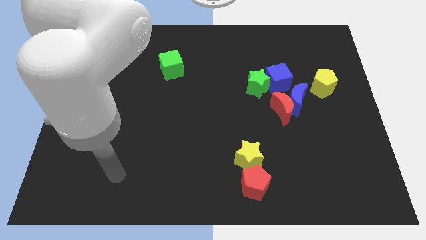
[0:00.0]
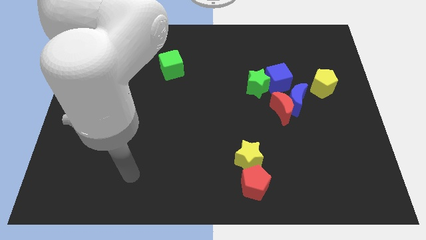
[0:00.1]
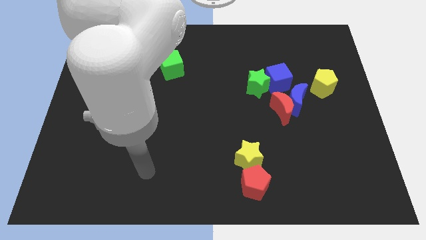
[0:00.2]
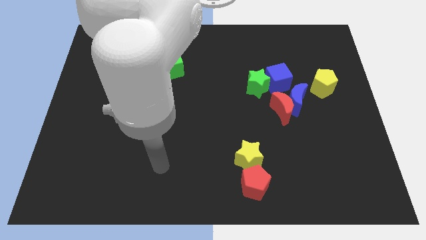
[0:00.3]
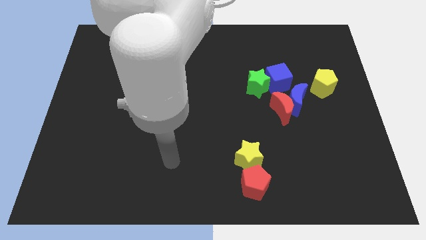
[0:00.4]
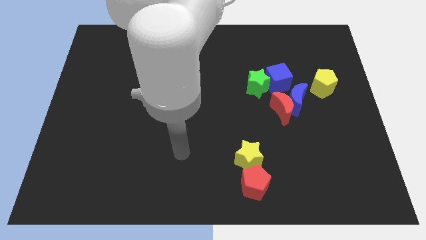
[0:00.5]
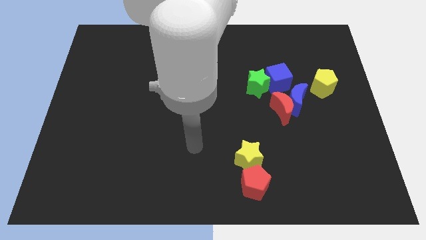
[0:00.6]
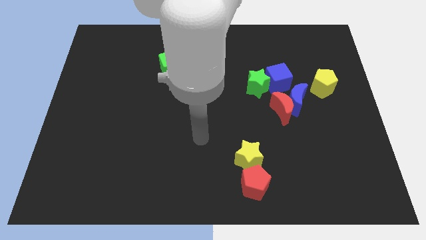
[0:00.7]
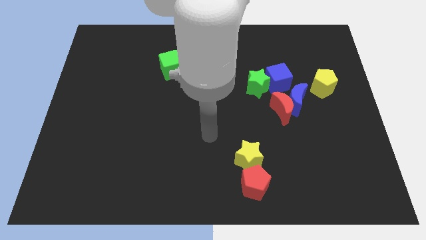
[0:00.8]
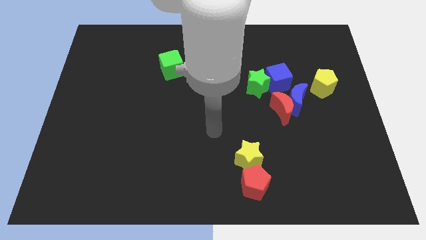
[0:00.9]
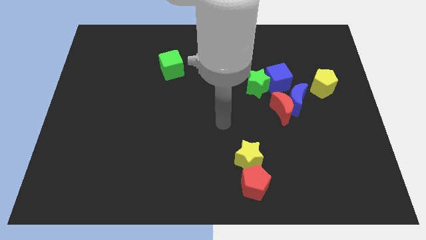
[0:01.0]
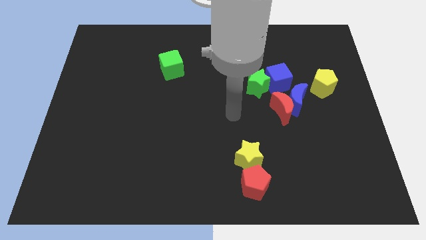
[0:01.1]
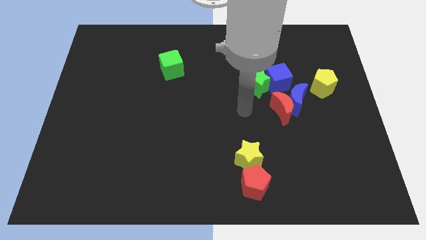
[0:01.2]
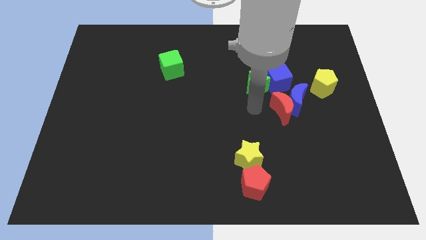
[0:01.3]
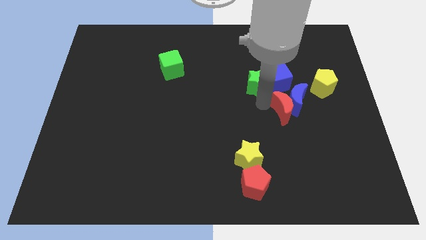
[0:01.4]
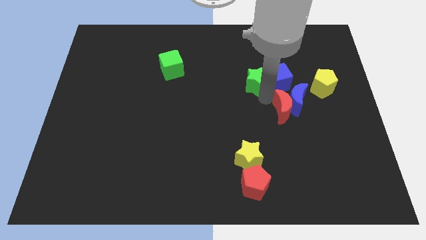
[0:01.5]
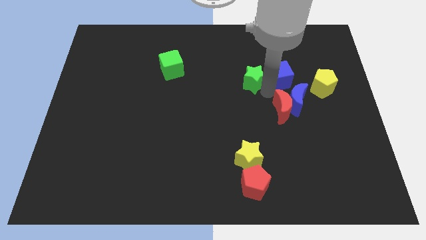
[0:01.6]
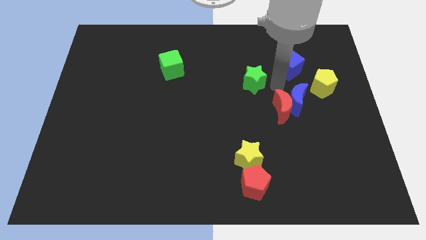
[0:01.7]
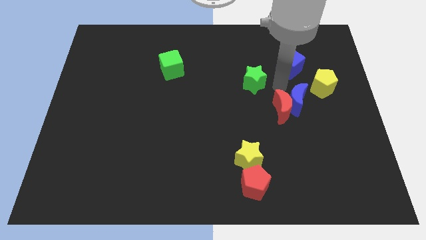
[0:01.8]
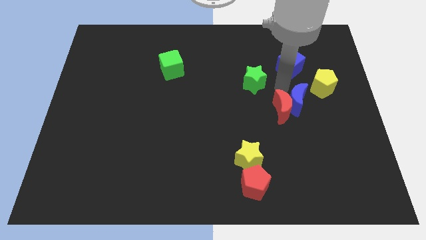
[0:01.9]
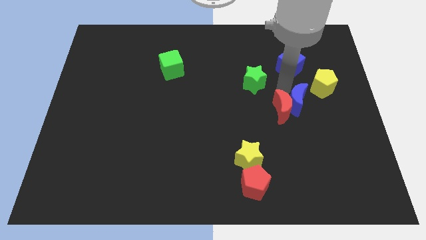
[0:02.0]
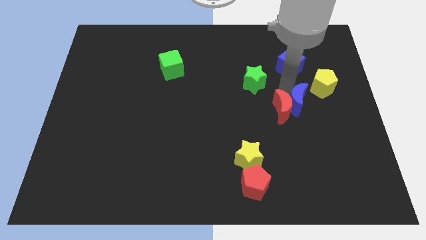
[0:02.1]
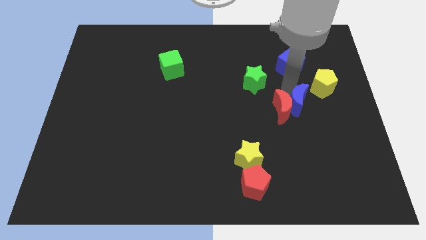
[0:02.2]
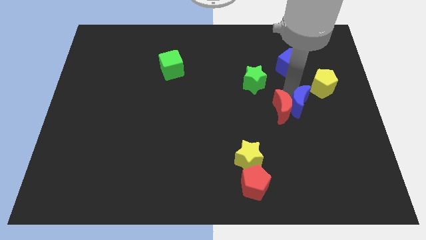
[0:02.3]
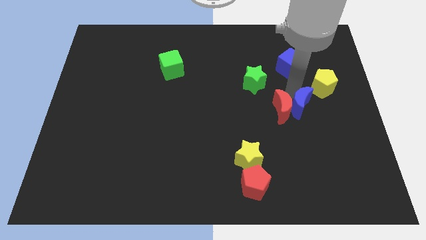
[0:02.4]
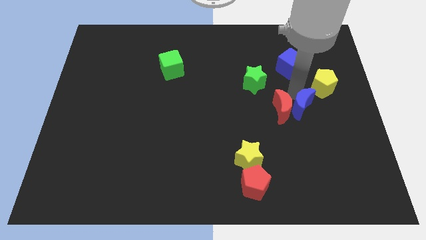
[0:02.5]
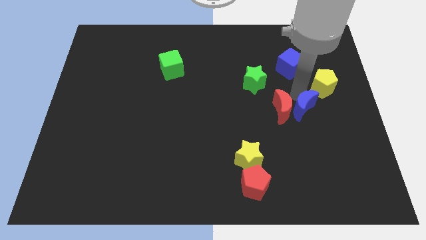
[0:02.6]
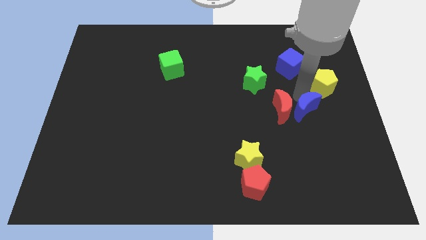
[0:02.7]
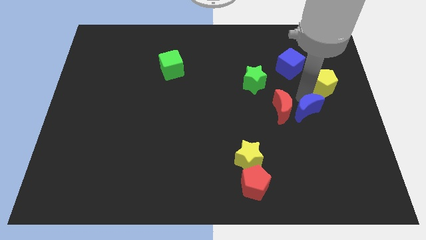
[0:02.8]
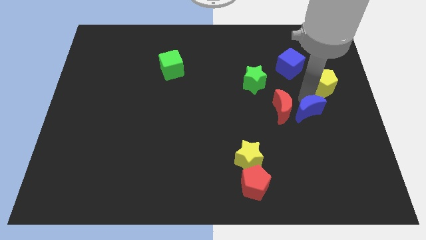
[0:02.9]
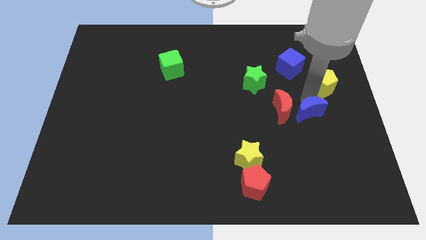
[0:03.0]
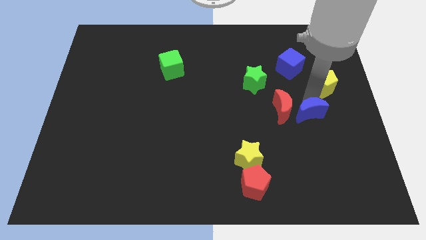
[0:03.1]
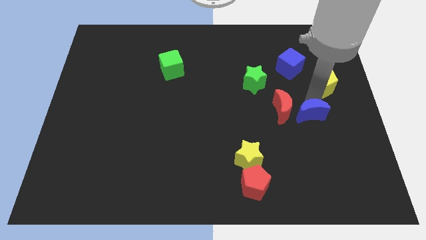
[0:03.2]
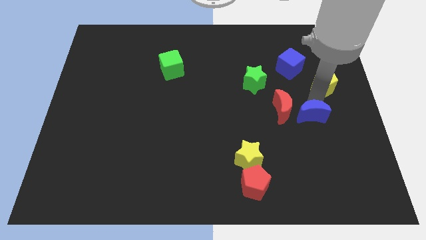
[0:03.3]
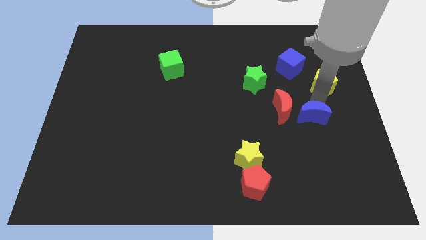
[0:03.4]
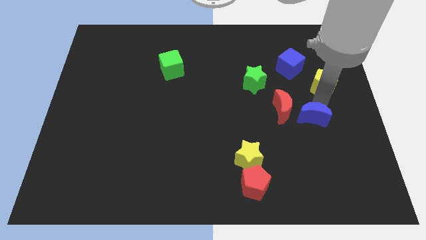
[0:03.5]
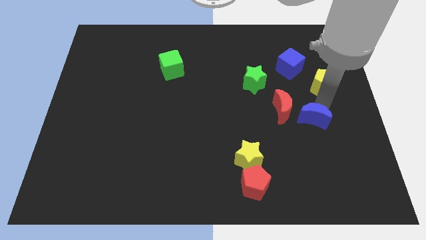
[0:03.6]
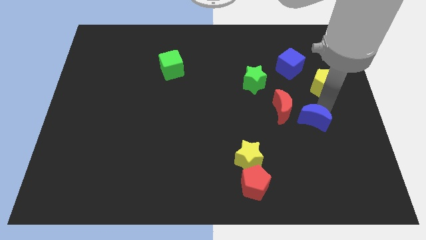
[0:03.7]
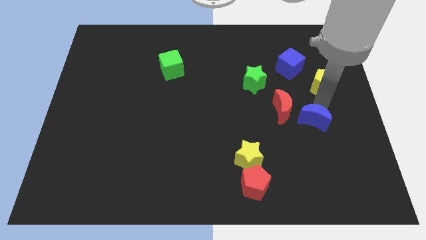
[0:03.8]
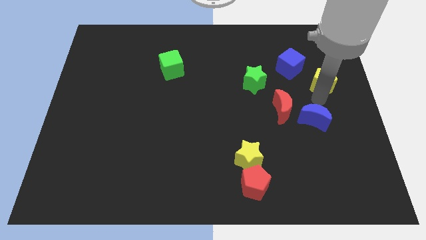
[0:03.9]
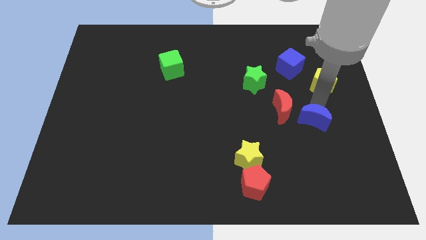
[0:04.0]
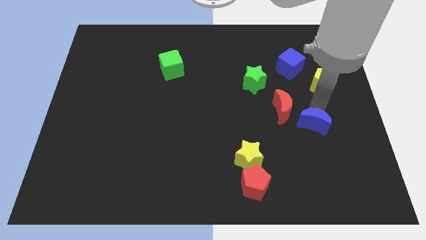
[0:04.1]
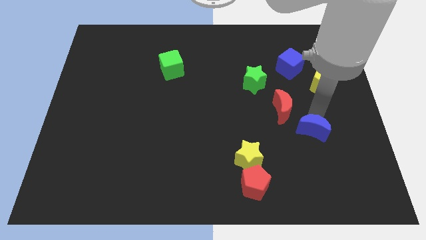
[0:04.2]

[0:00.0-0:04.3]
move the blue moon down a bit

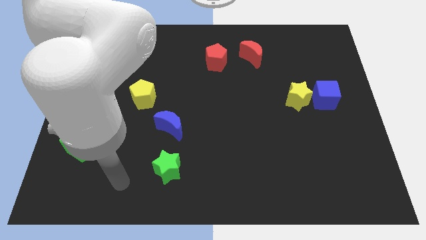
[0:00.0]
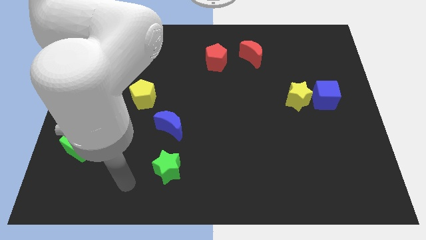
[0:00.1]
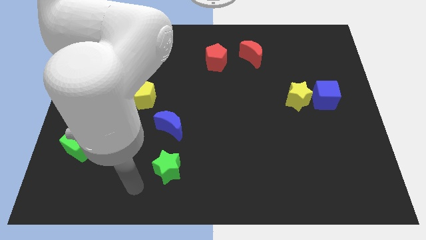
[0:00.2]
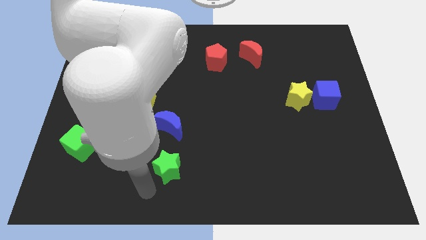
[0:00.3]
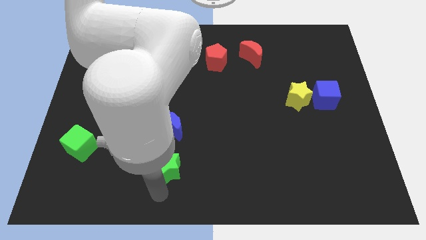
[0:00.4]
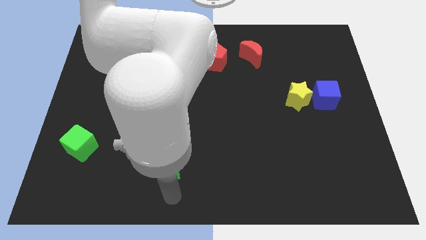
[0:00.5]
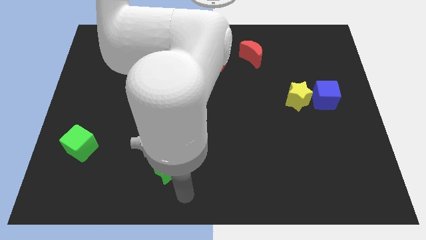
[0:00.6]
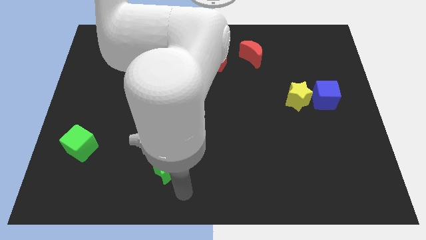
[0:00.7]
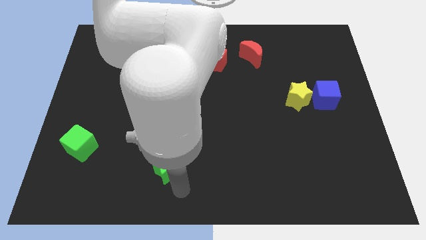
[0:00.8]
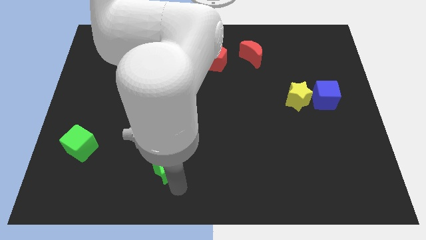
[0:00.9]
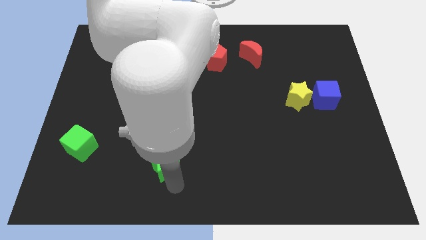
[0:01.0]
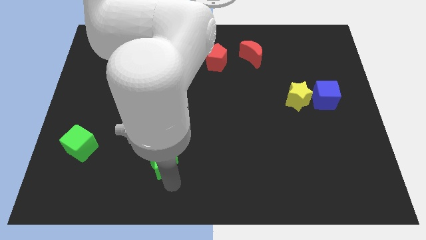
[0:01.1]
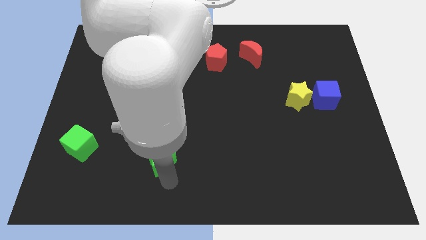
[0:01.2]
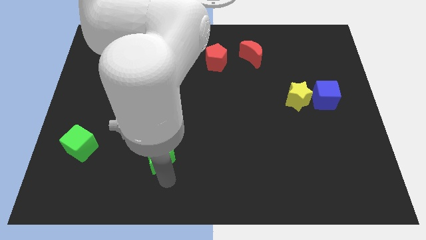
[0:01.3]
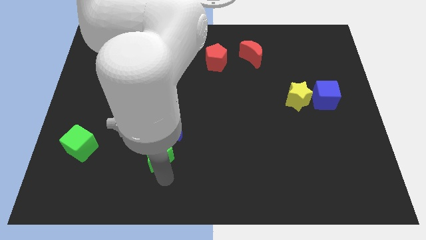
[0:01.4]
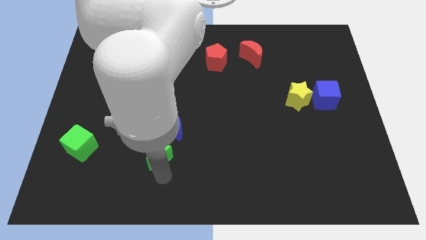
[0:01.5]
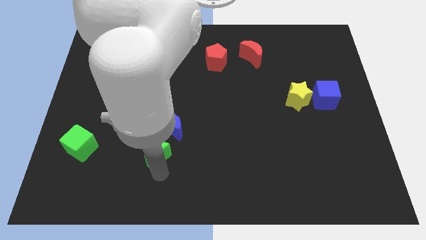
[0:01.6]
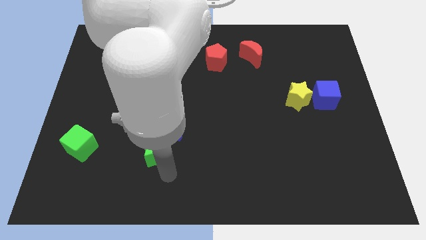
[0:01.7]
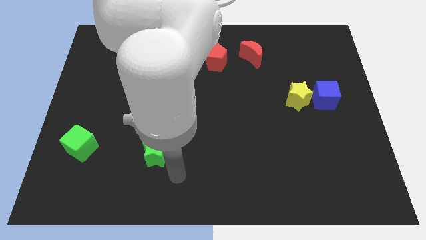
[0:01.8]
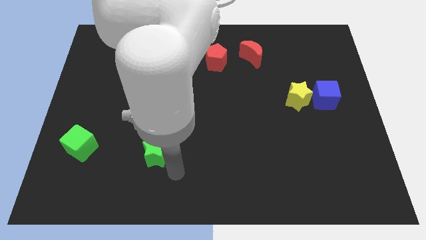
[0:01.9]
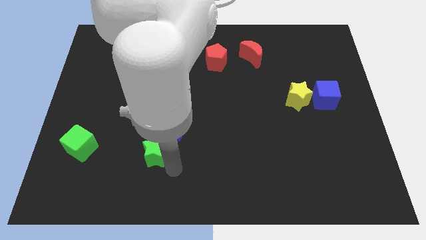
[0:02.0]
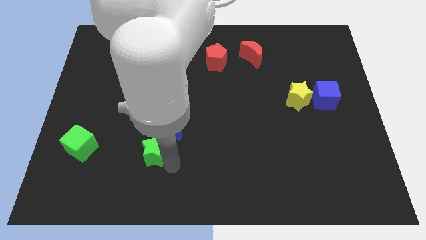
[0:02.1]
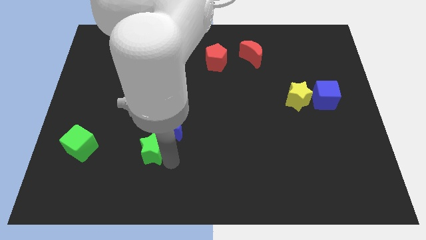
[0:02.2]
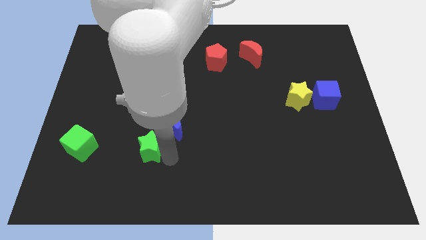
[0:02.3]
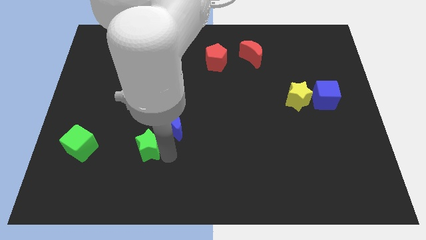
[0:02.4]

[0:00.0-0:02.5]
move the green star upwards and left diagonally a little

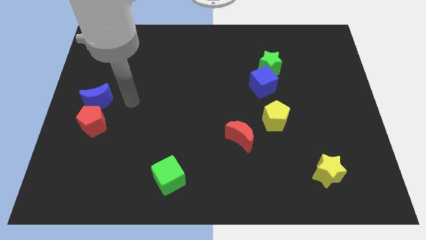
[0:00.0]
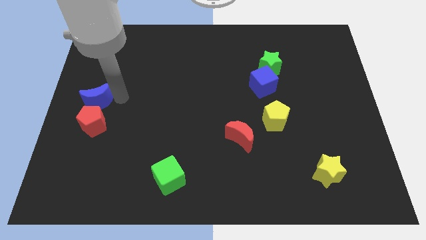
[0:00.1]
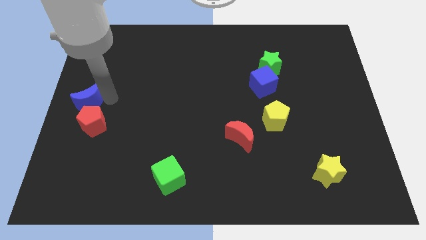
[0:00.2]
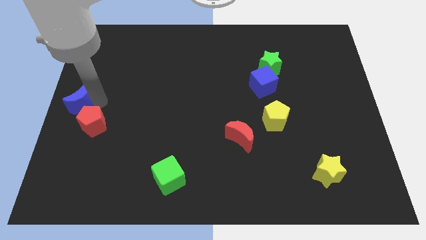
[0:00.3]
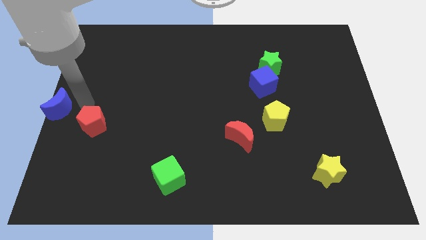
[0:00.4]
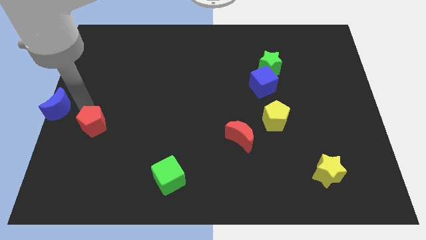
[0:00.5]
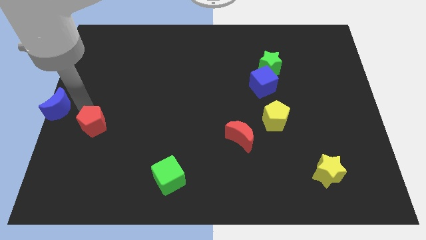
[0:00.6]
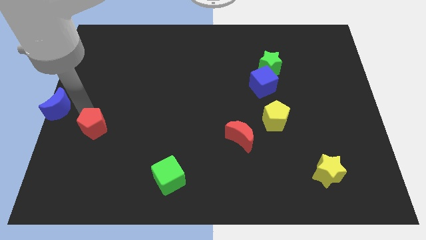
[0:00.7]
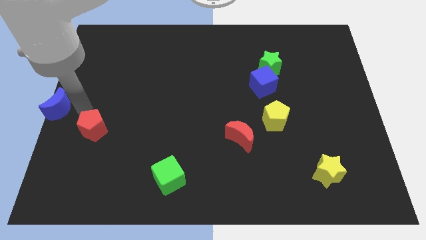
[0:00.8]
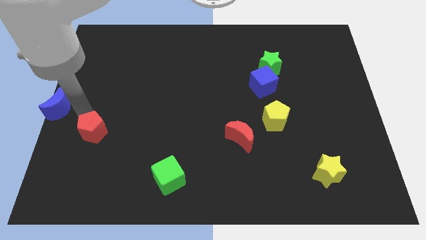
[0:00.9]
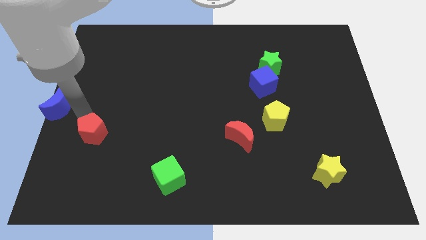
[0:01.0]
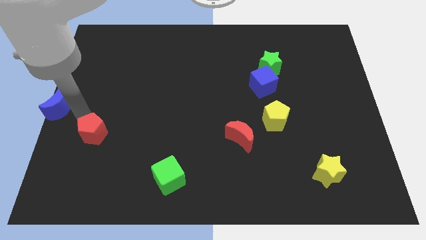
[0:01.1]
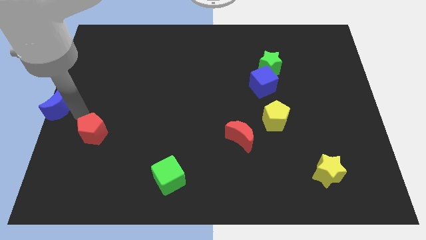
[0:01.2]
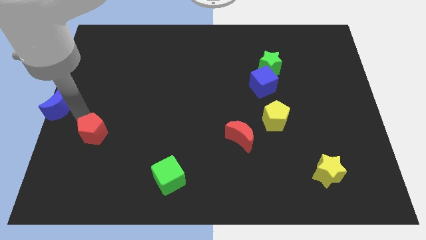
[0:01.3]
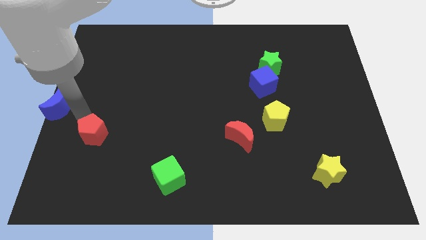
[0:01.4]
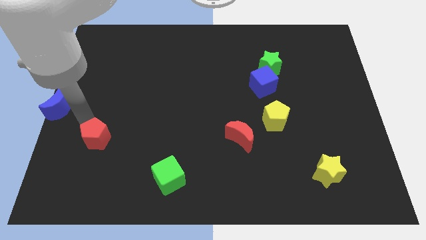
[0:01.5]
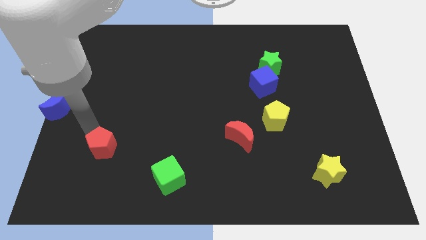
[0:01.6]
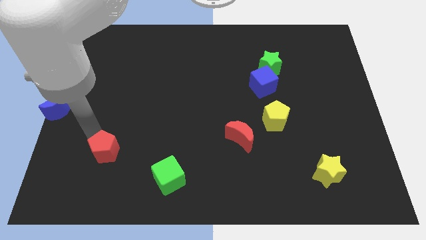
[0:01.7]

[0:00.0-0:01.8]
slide the red pentagon down and then to the right a bit
